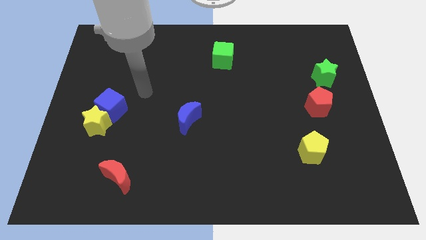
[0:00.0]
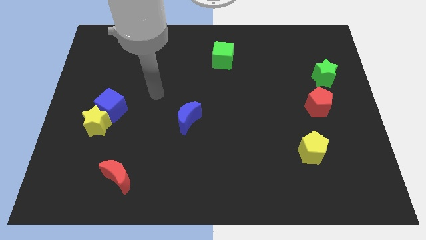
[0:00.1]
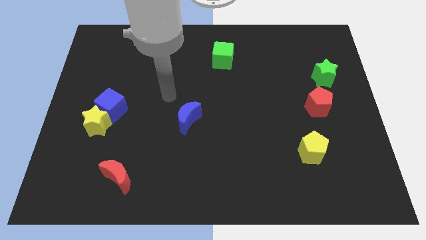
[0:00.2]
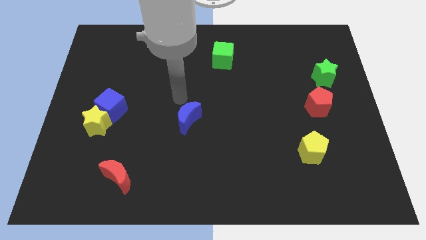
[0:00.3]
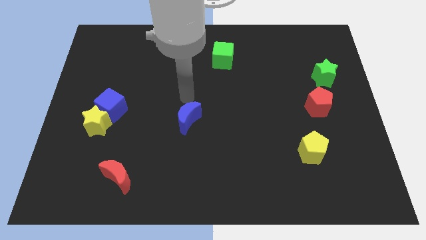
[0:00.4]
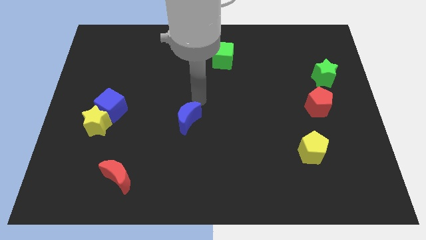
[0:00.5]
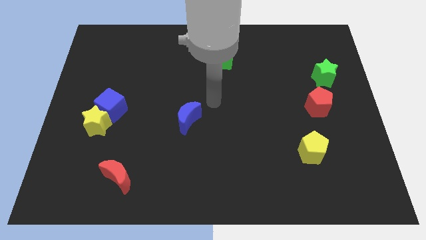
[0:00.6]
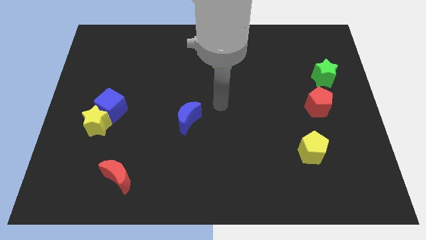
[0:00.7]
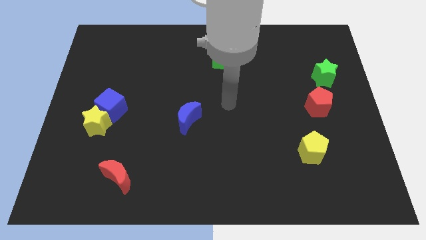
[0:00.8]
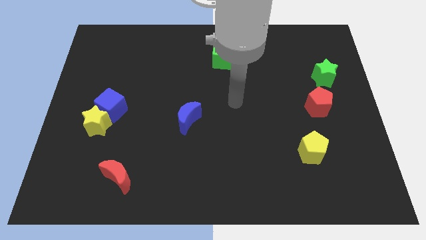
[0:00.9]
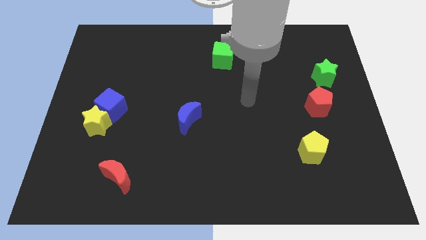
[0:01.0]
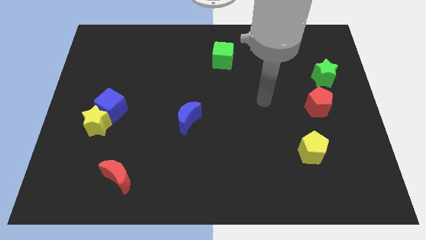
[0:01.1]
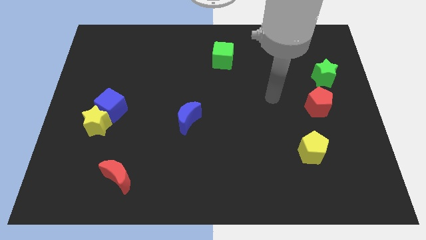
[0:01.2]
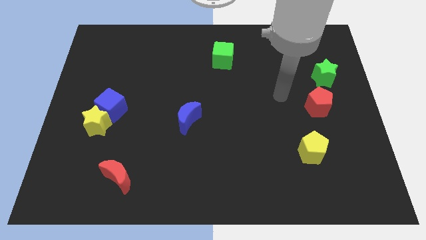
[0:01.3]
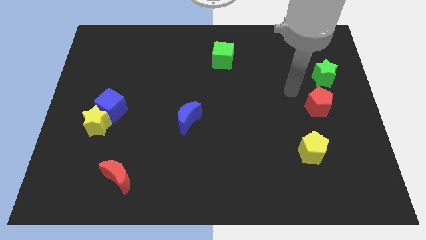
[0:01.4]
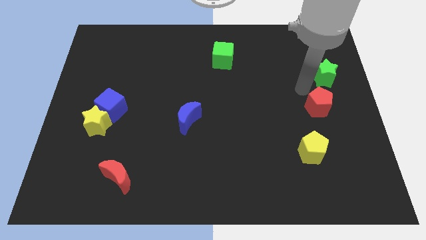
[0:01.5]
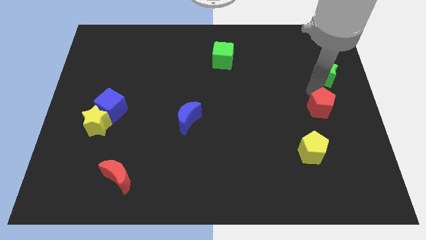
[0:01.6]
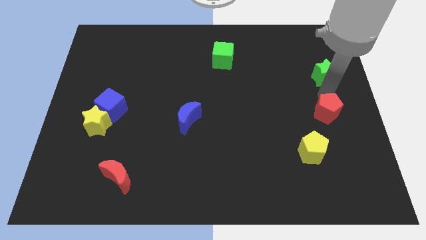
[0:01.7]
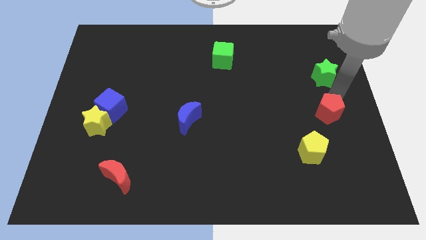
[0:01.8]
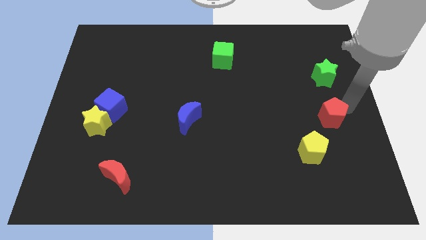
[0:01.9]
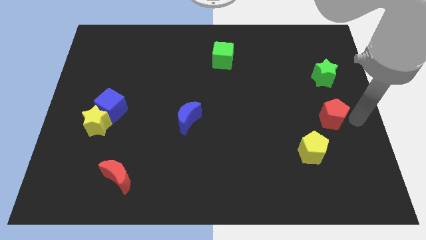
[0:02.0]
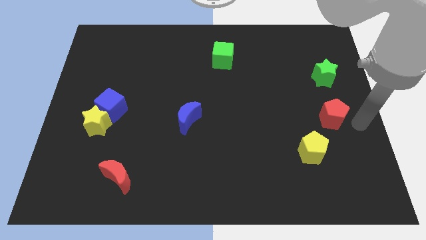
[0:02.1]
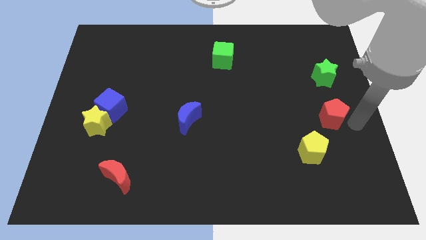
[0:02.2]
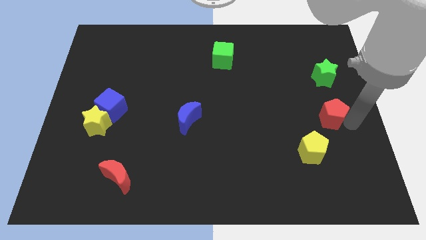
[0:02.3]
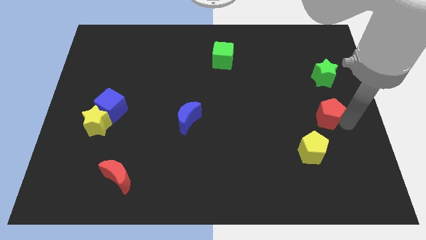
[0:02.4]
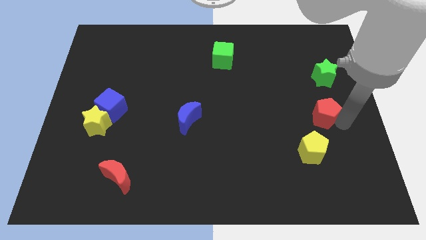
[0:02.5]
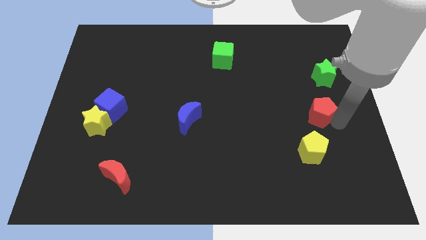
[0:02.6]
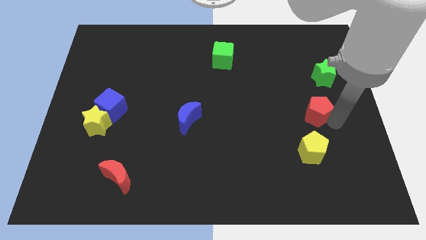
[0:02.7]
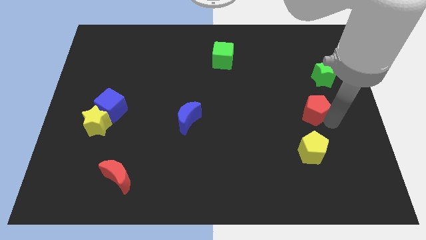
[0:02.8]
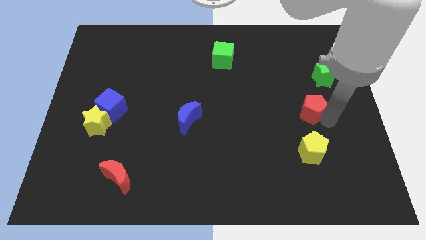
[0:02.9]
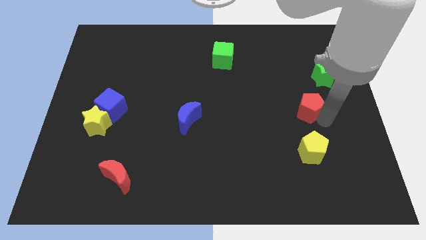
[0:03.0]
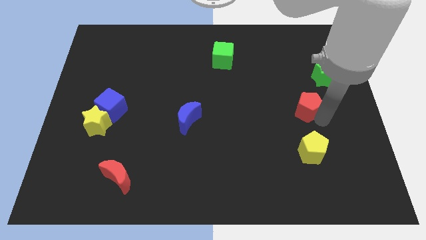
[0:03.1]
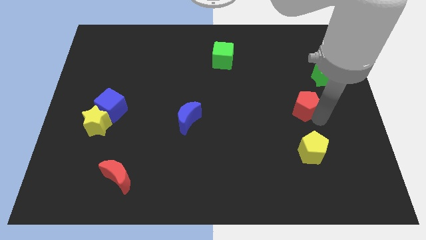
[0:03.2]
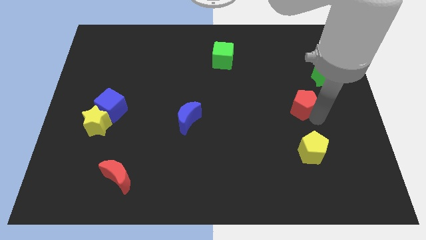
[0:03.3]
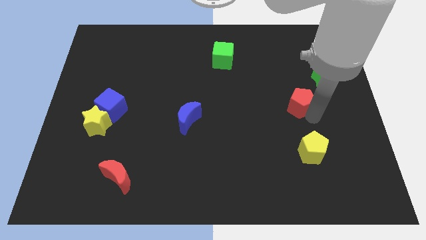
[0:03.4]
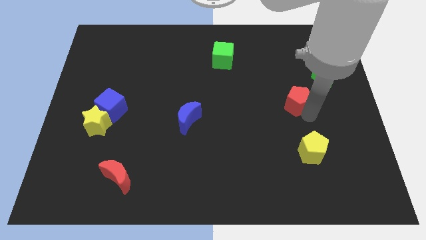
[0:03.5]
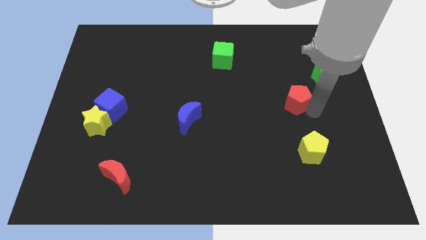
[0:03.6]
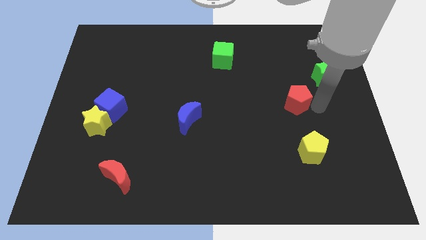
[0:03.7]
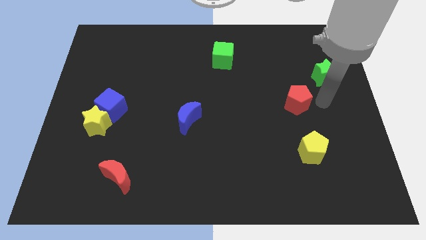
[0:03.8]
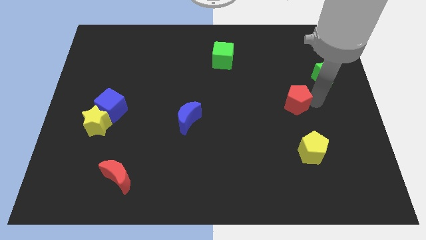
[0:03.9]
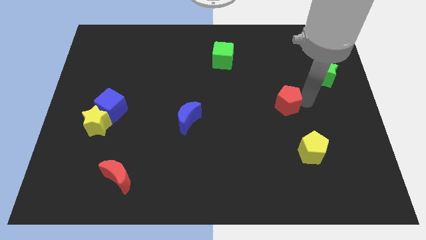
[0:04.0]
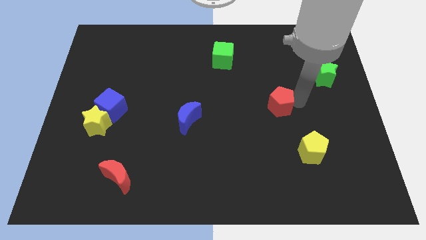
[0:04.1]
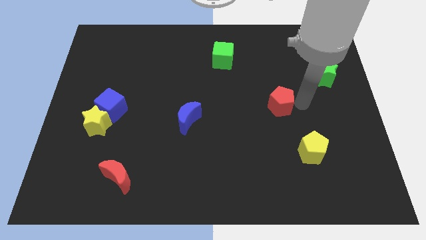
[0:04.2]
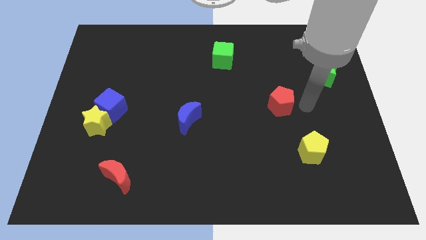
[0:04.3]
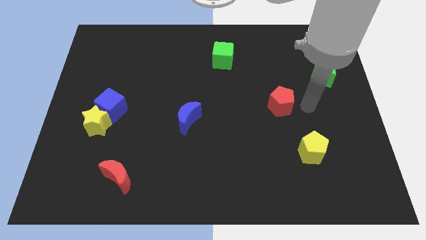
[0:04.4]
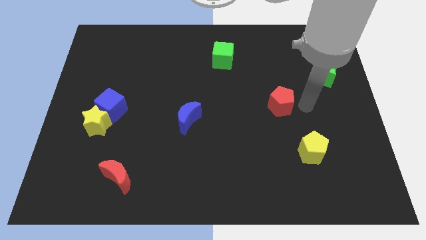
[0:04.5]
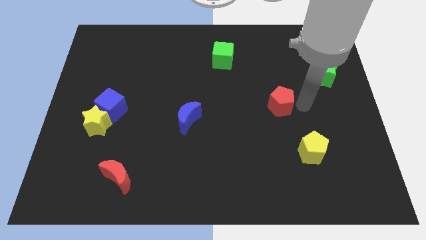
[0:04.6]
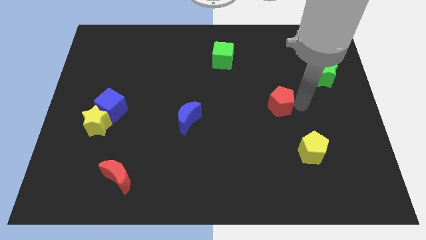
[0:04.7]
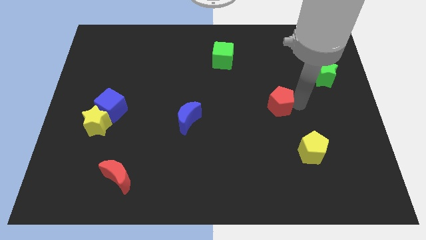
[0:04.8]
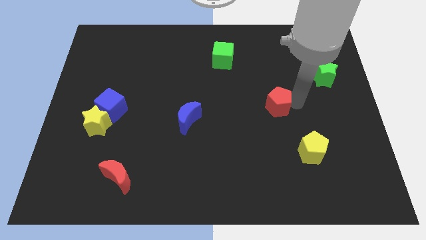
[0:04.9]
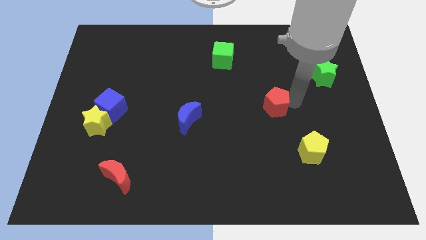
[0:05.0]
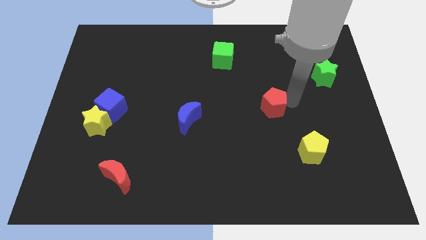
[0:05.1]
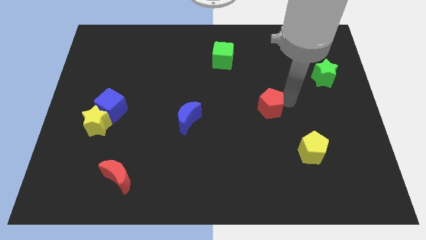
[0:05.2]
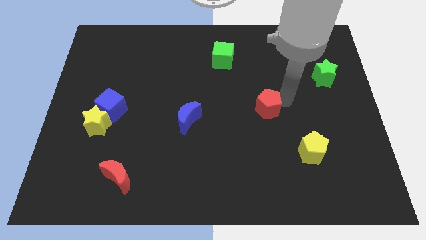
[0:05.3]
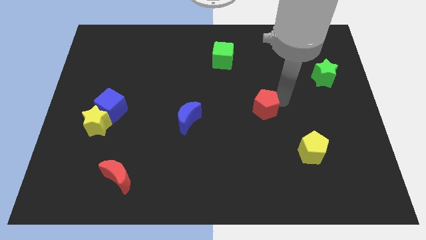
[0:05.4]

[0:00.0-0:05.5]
slide the red pentagon to the center

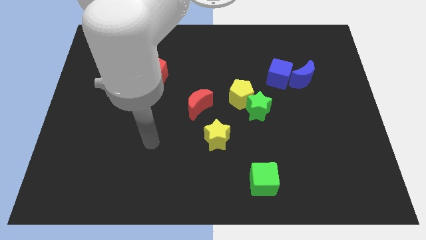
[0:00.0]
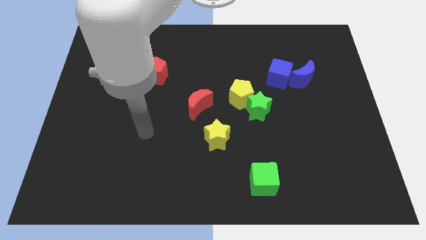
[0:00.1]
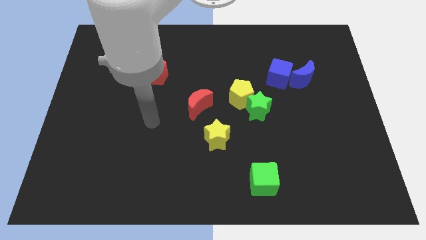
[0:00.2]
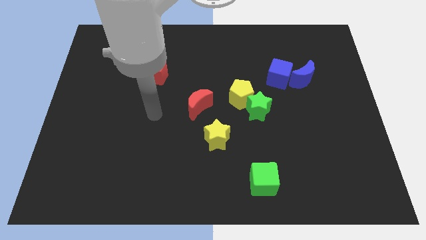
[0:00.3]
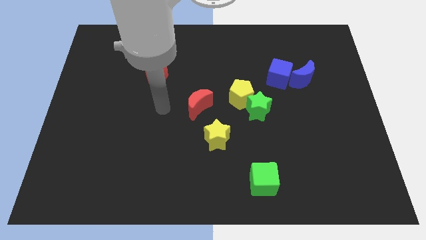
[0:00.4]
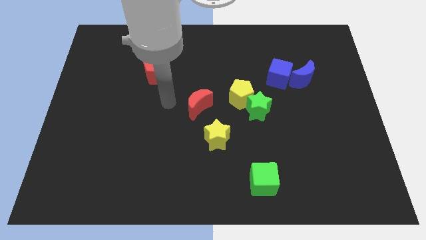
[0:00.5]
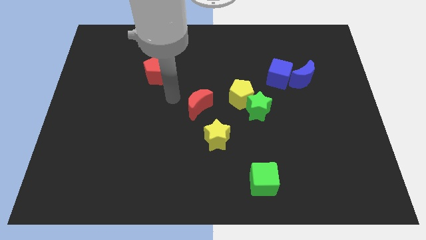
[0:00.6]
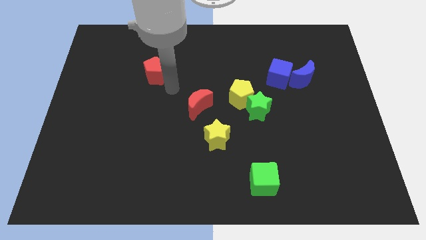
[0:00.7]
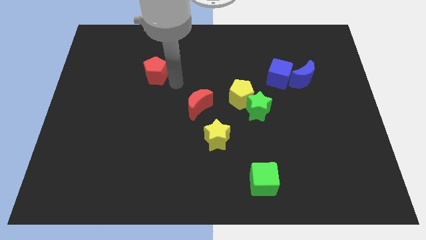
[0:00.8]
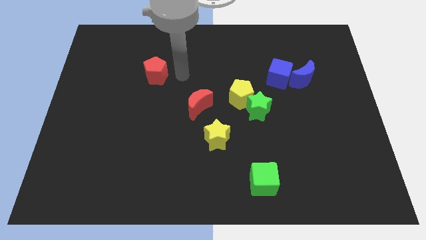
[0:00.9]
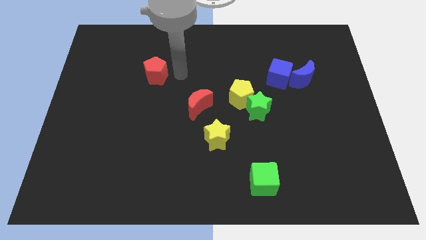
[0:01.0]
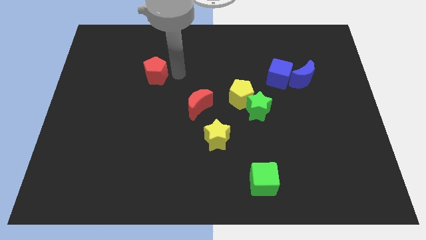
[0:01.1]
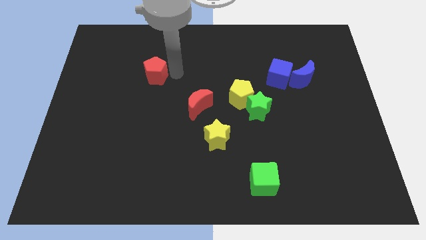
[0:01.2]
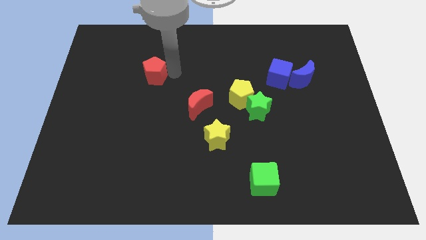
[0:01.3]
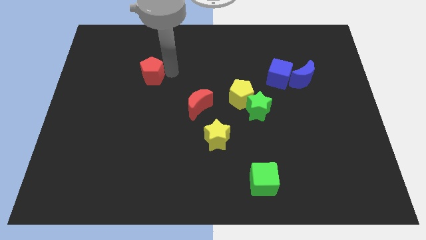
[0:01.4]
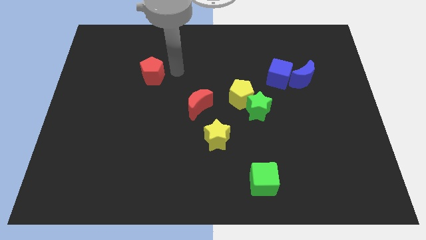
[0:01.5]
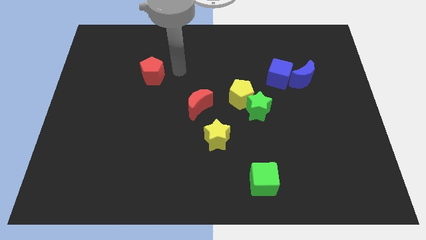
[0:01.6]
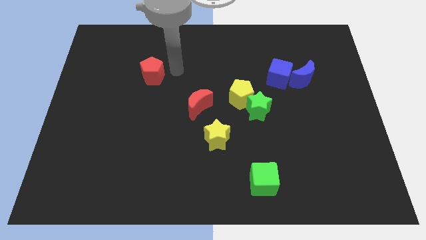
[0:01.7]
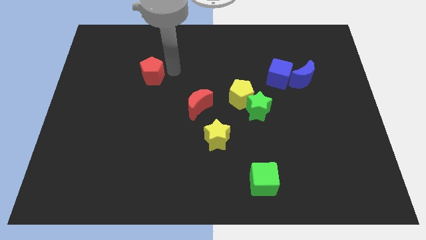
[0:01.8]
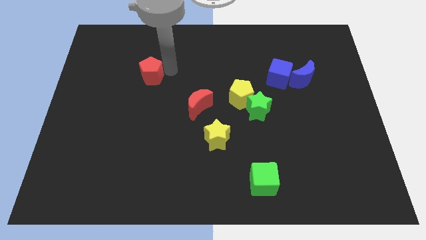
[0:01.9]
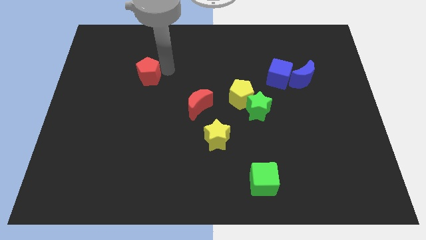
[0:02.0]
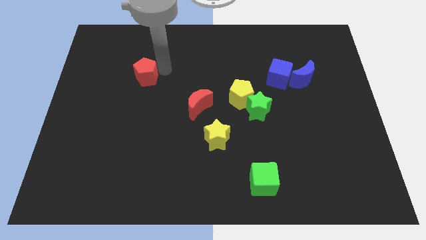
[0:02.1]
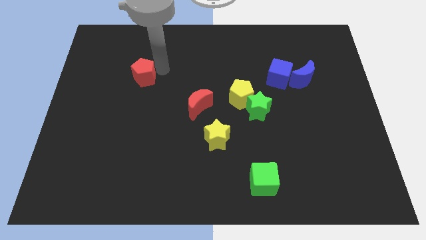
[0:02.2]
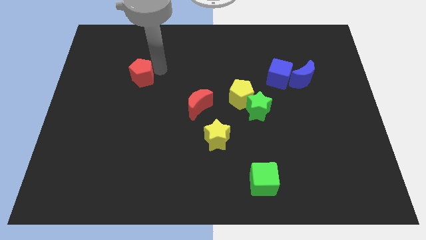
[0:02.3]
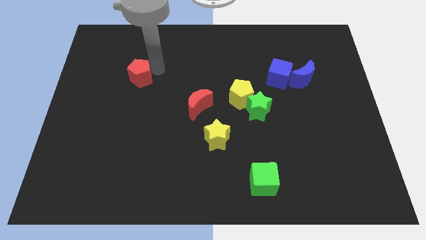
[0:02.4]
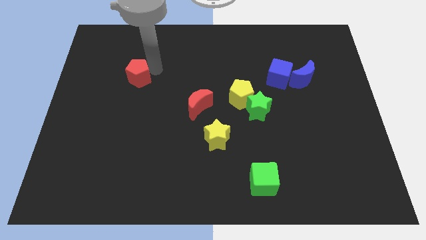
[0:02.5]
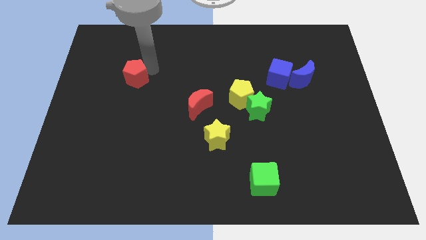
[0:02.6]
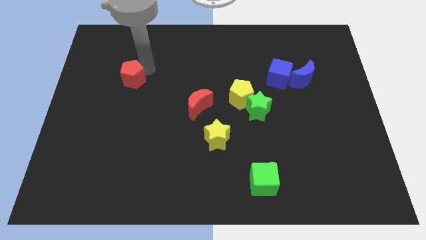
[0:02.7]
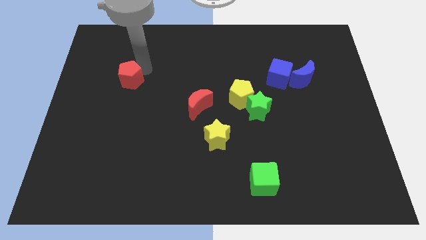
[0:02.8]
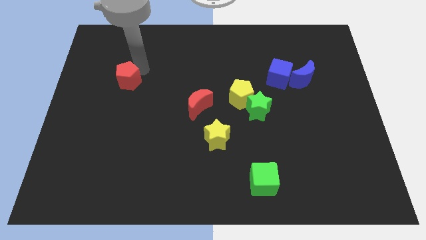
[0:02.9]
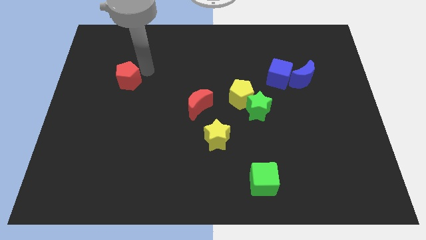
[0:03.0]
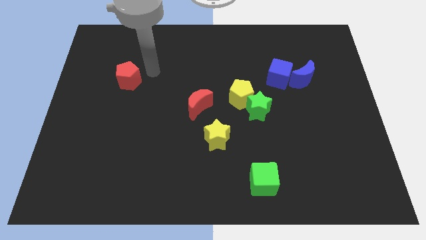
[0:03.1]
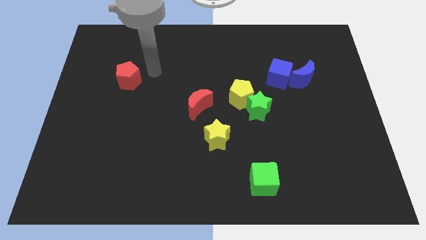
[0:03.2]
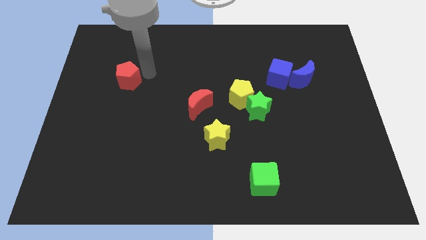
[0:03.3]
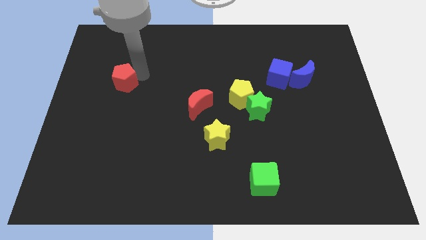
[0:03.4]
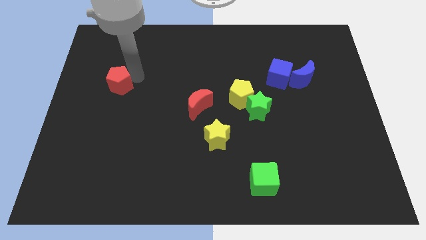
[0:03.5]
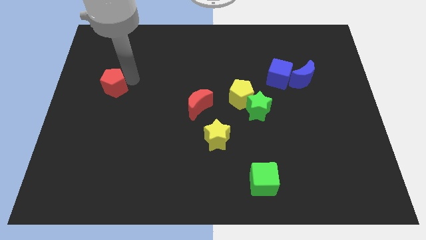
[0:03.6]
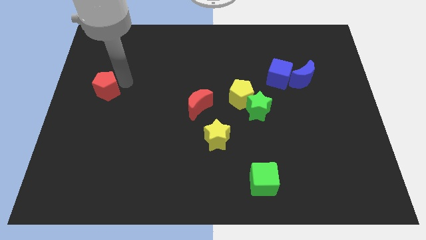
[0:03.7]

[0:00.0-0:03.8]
move the red pentagon to the left side of the board
